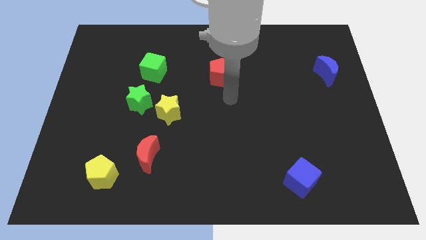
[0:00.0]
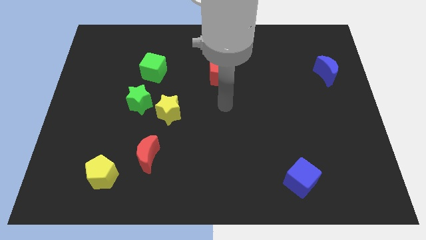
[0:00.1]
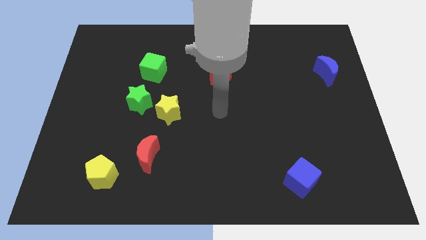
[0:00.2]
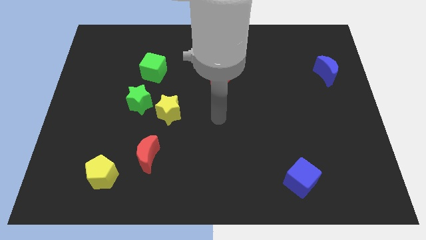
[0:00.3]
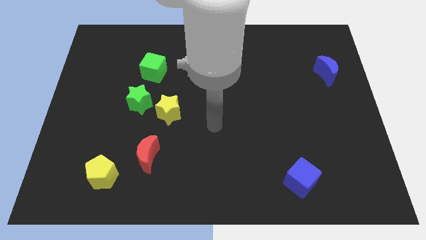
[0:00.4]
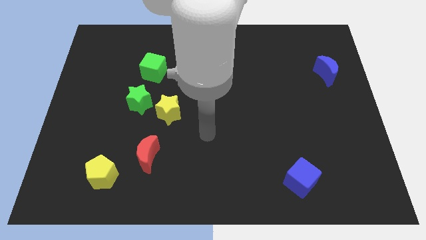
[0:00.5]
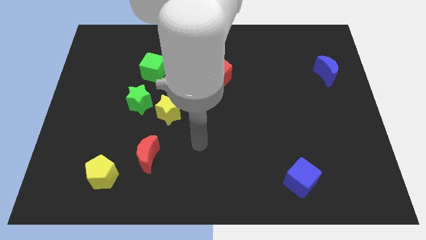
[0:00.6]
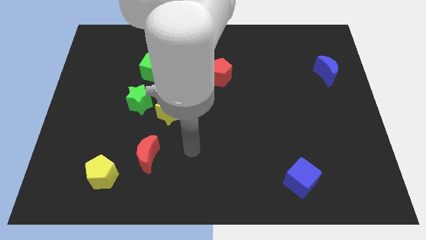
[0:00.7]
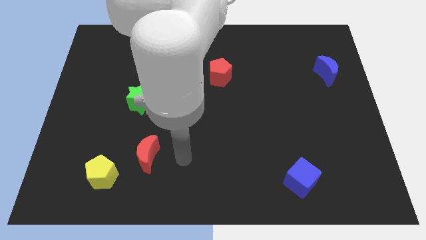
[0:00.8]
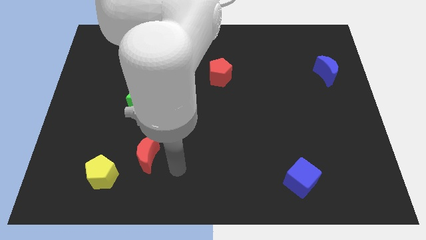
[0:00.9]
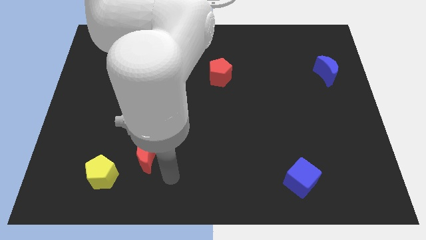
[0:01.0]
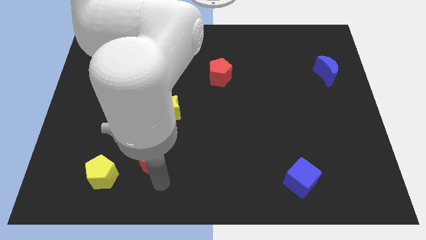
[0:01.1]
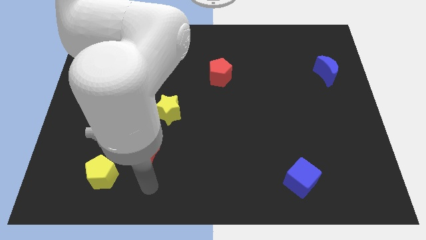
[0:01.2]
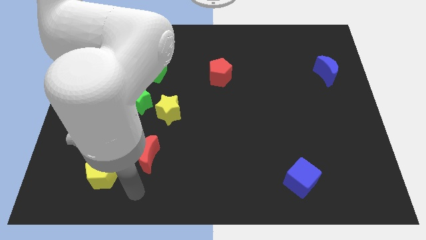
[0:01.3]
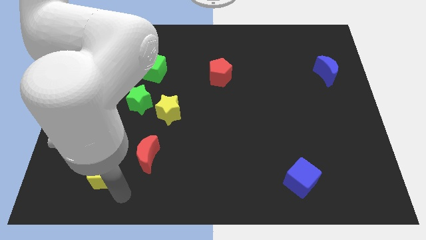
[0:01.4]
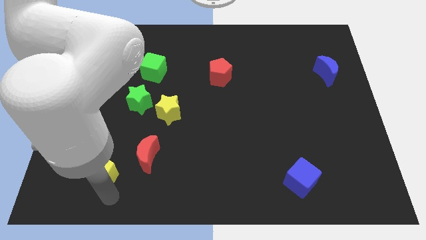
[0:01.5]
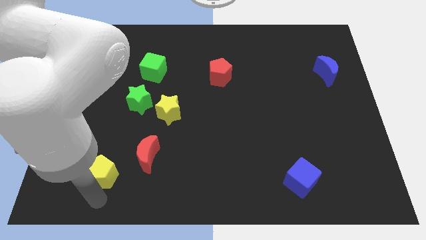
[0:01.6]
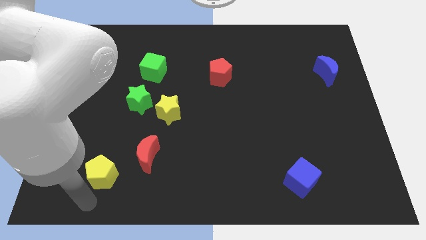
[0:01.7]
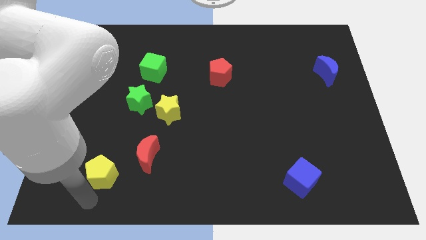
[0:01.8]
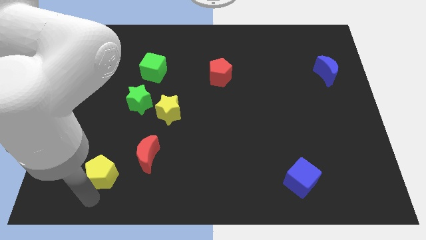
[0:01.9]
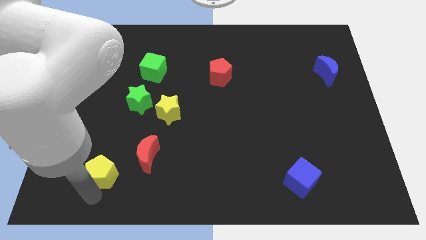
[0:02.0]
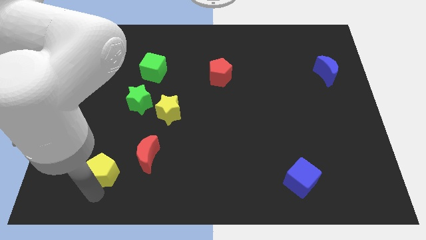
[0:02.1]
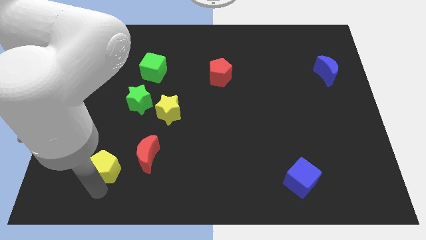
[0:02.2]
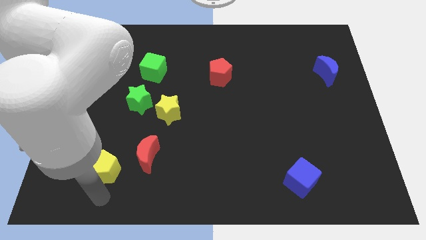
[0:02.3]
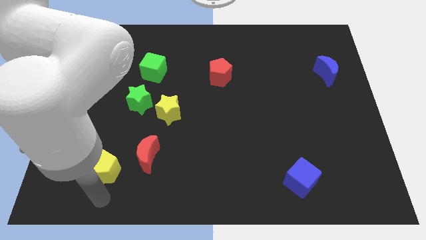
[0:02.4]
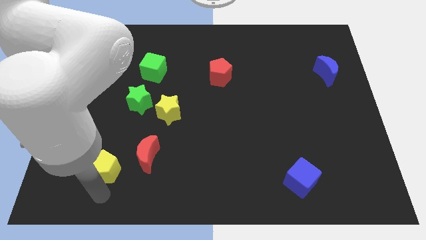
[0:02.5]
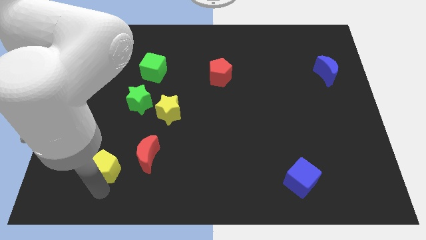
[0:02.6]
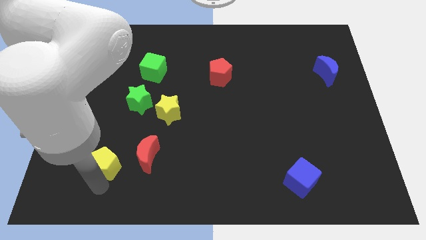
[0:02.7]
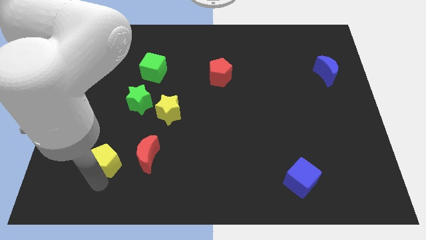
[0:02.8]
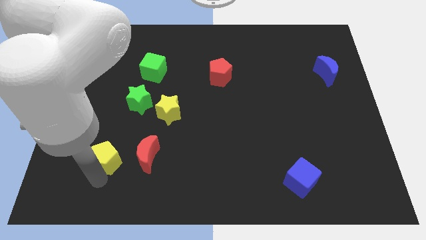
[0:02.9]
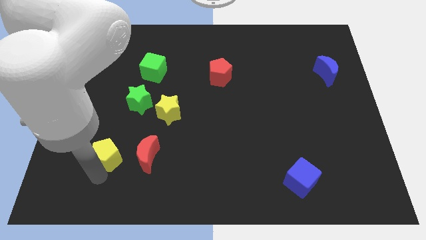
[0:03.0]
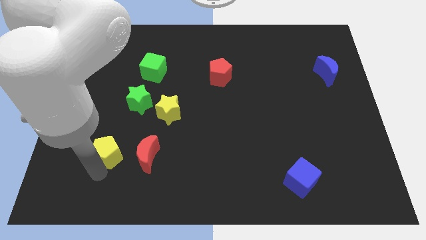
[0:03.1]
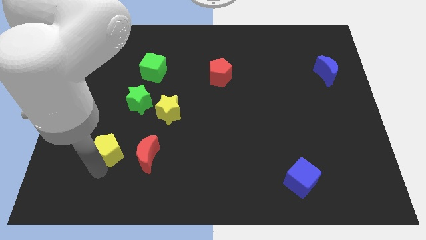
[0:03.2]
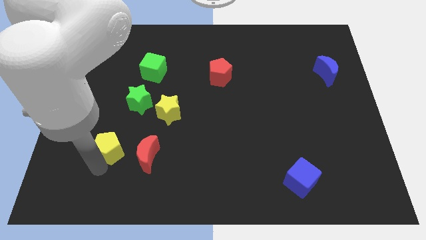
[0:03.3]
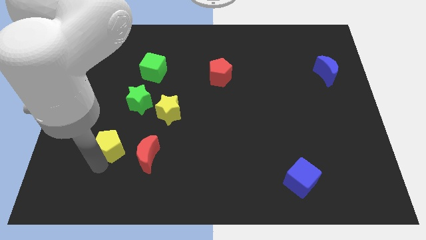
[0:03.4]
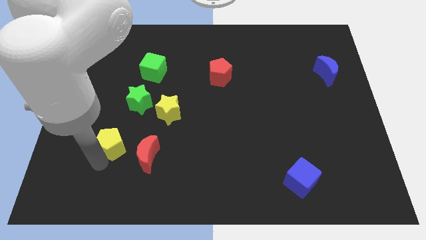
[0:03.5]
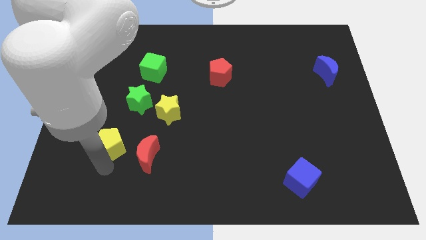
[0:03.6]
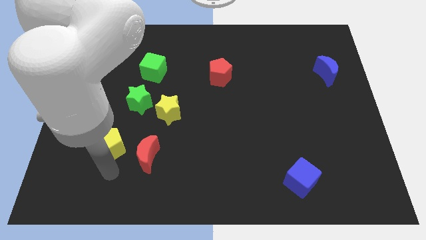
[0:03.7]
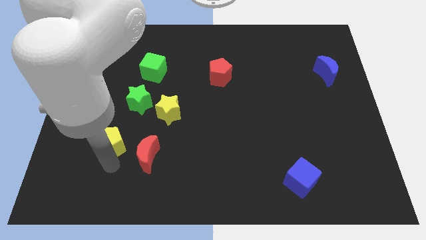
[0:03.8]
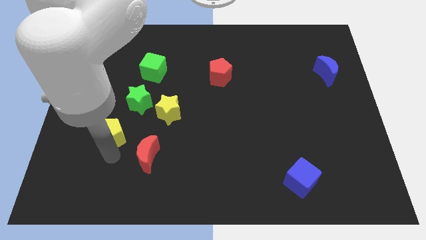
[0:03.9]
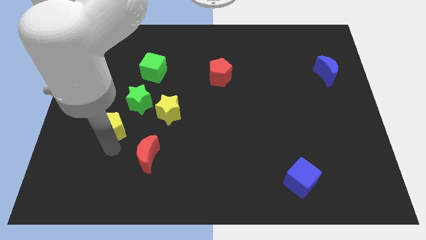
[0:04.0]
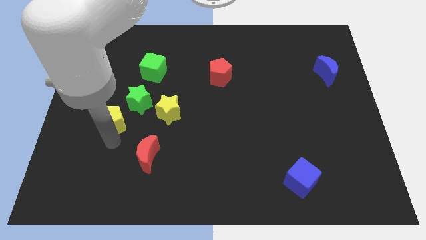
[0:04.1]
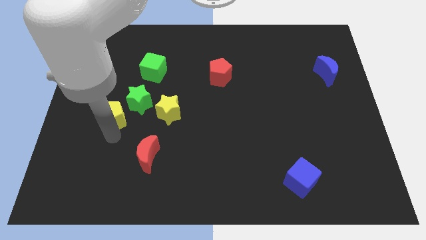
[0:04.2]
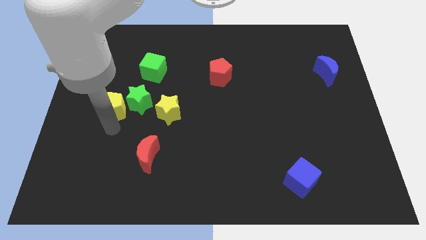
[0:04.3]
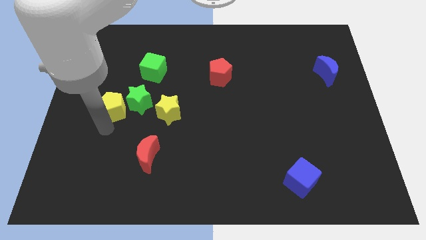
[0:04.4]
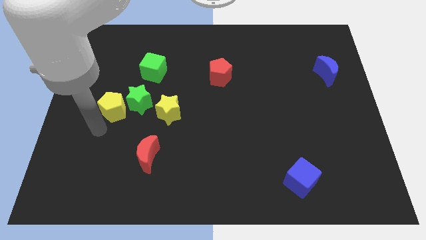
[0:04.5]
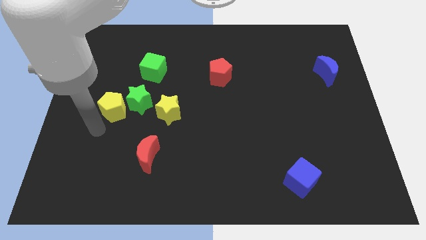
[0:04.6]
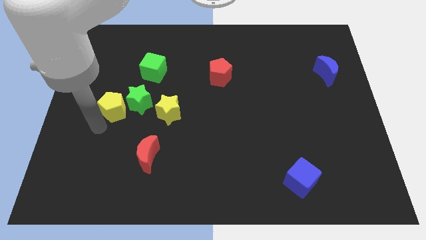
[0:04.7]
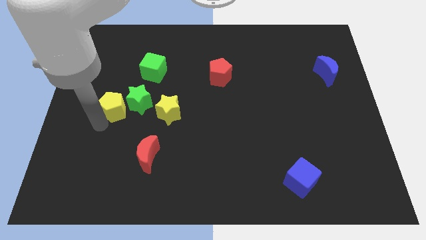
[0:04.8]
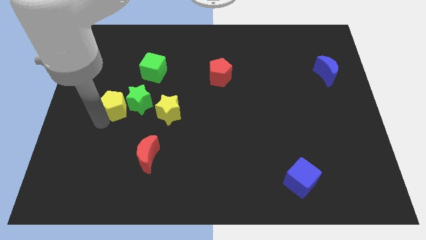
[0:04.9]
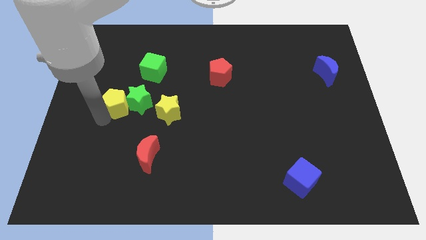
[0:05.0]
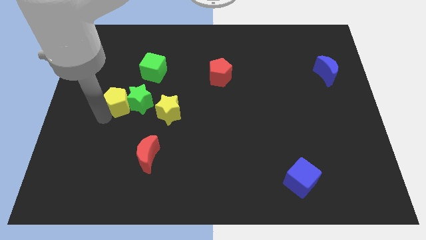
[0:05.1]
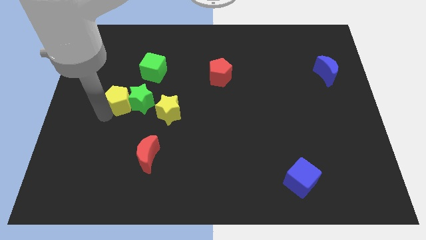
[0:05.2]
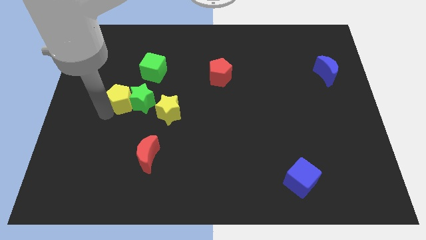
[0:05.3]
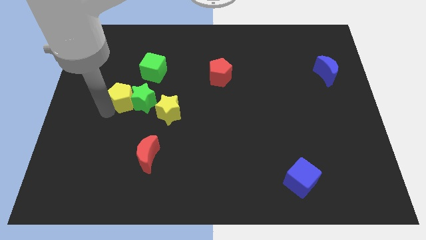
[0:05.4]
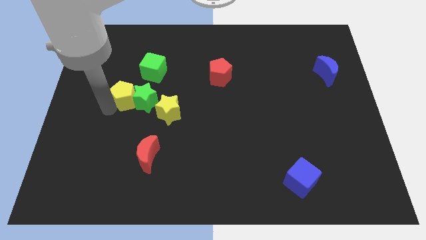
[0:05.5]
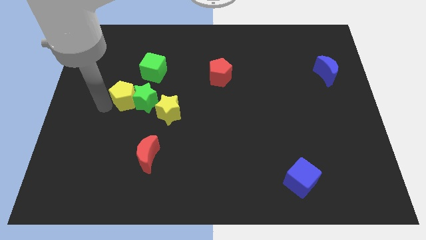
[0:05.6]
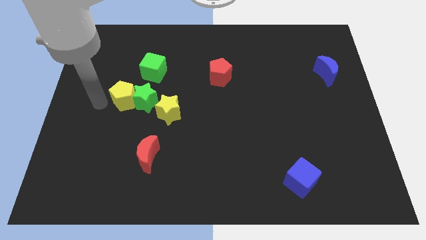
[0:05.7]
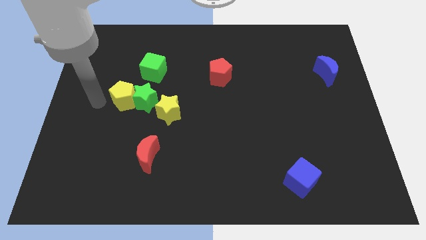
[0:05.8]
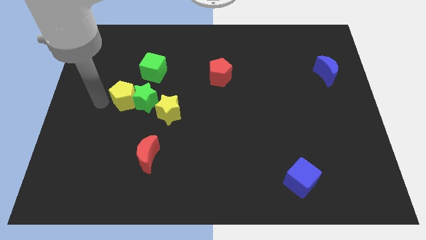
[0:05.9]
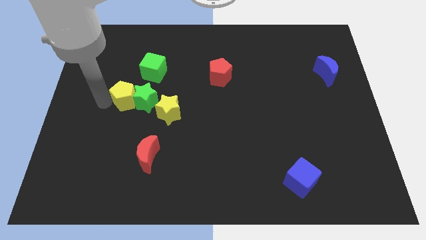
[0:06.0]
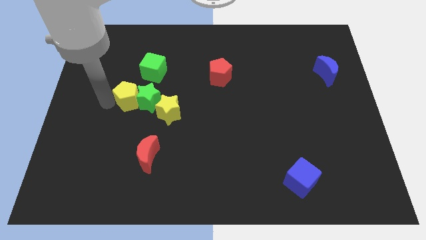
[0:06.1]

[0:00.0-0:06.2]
move the yellow pentagon to the top left of the yellow star

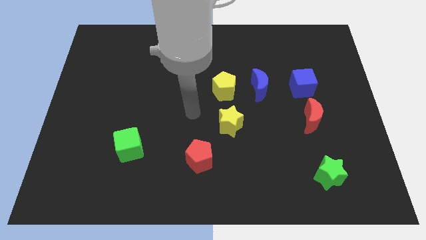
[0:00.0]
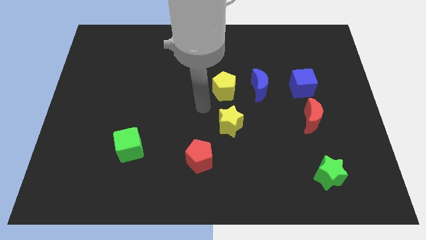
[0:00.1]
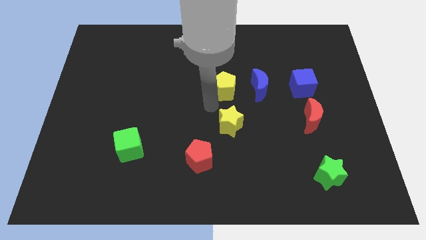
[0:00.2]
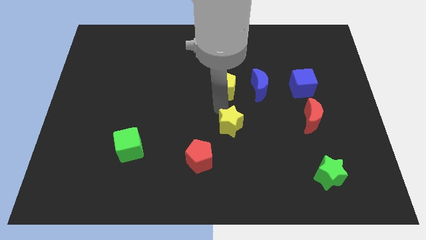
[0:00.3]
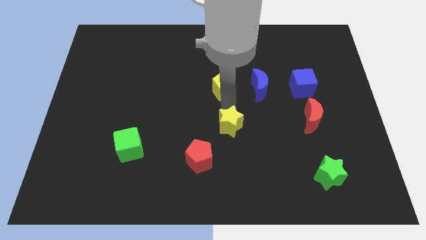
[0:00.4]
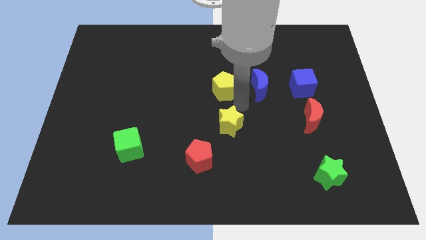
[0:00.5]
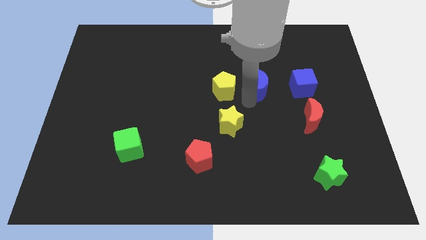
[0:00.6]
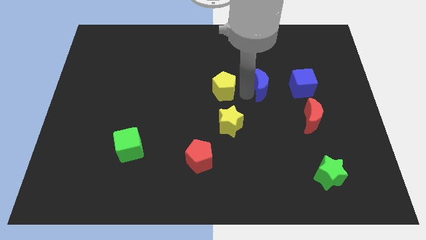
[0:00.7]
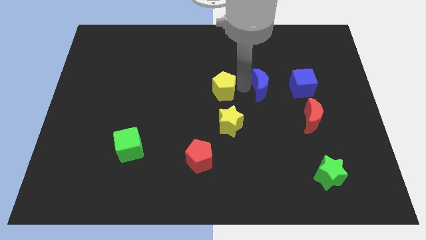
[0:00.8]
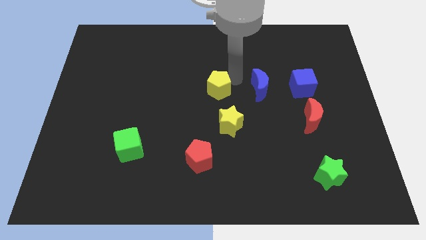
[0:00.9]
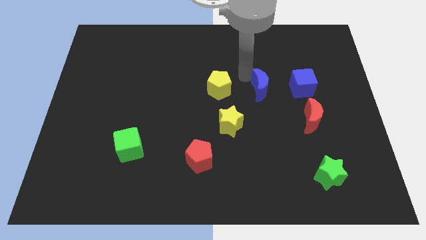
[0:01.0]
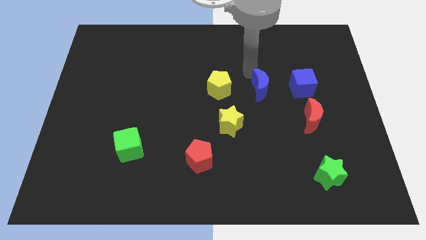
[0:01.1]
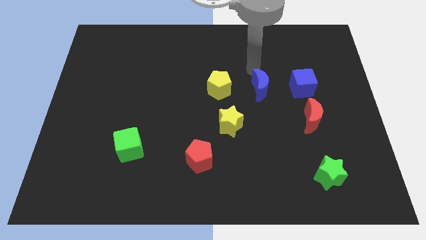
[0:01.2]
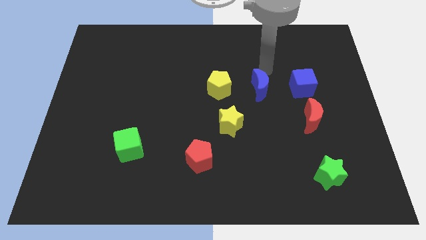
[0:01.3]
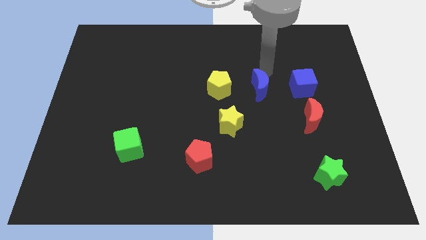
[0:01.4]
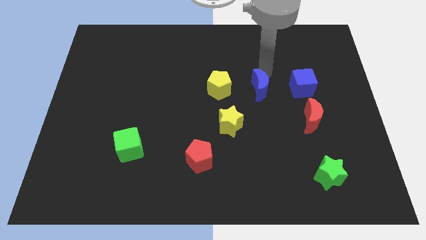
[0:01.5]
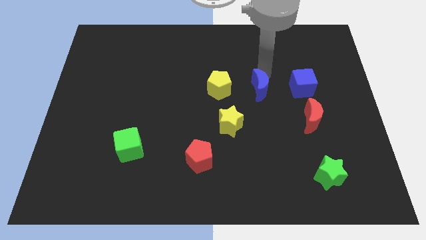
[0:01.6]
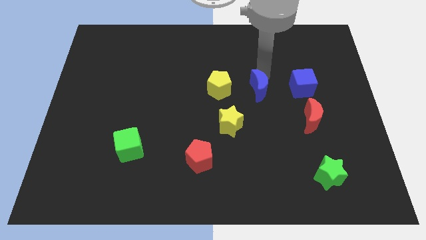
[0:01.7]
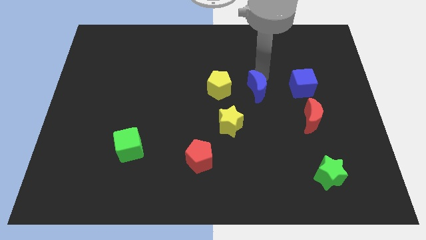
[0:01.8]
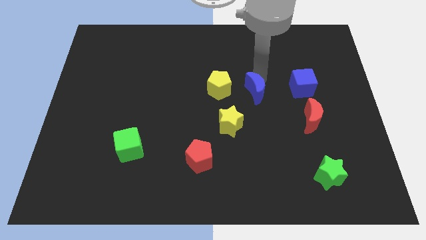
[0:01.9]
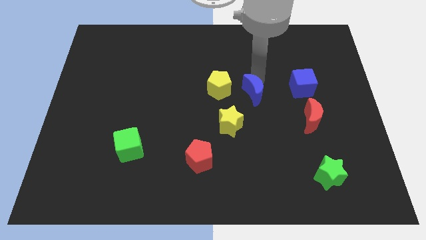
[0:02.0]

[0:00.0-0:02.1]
move the blue moon diagonally down and to the right of the yellow pentagon
